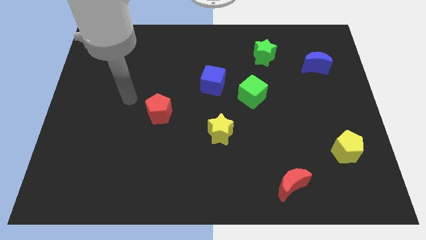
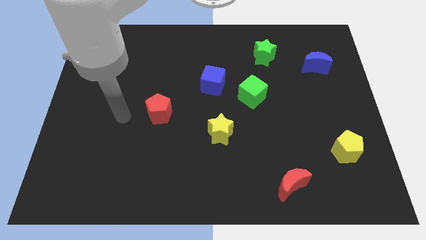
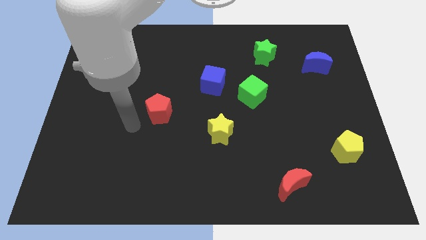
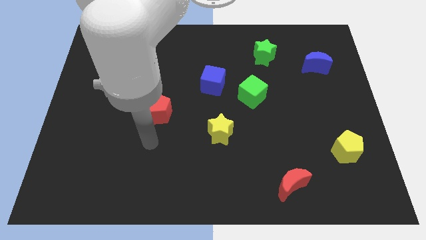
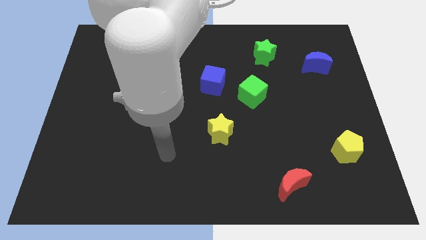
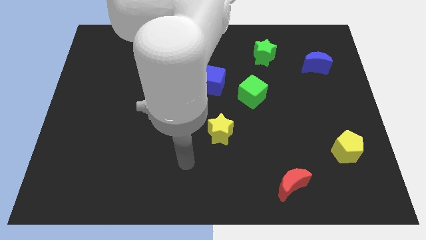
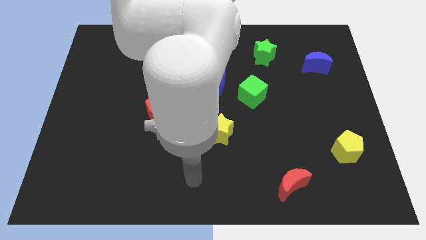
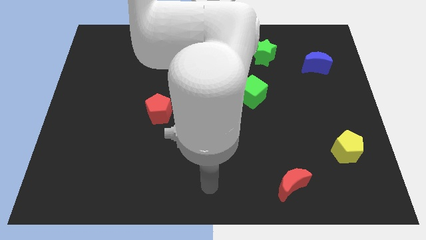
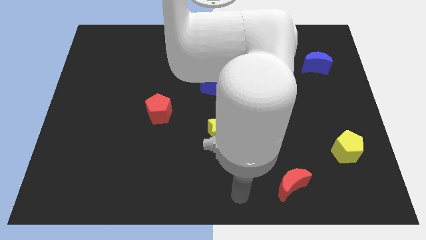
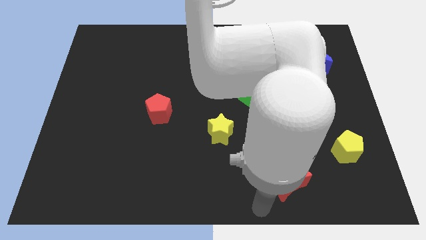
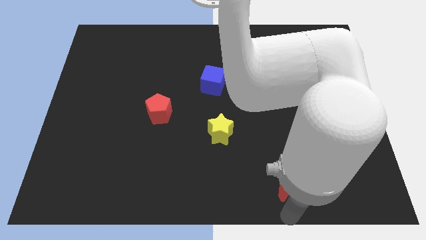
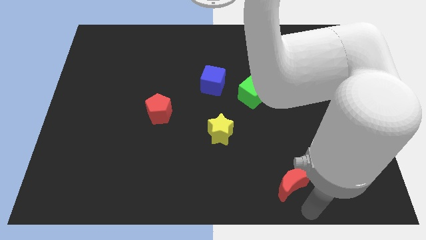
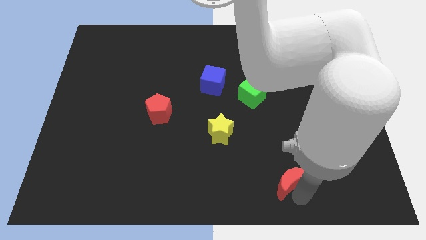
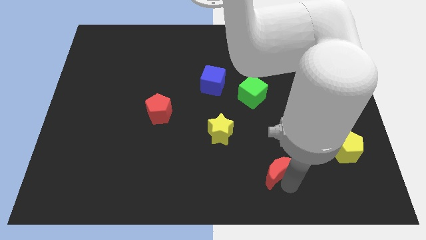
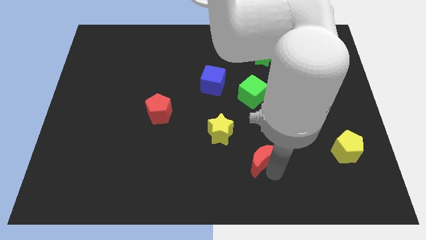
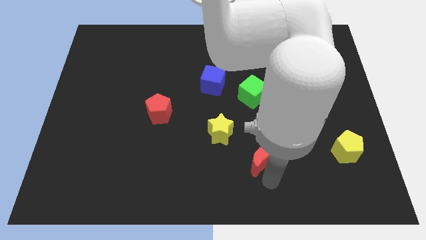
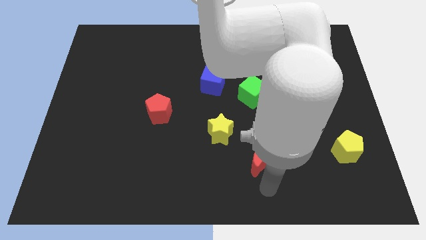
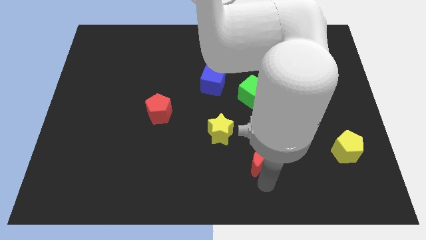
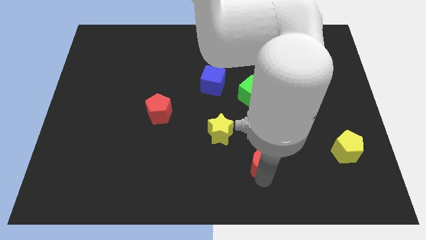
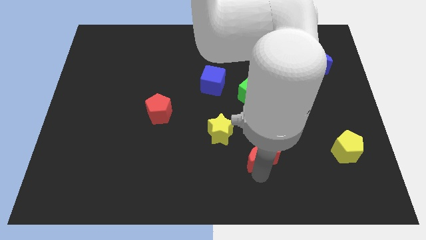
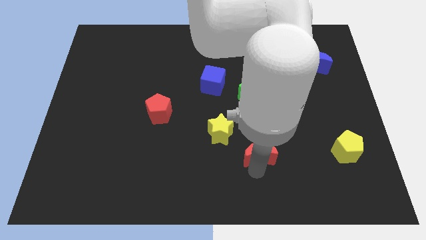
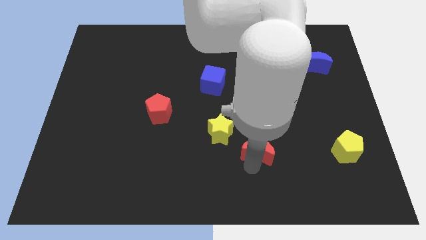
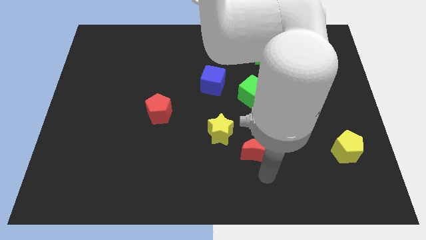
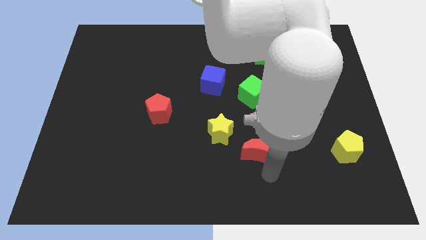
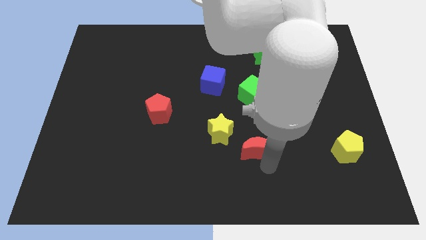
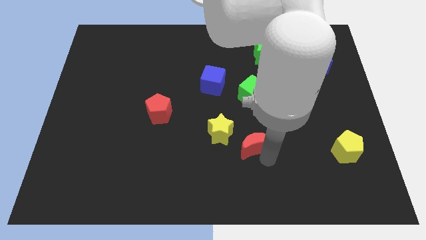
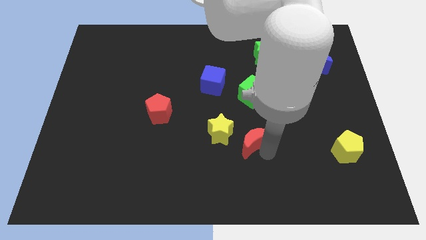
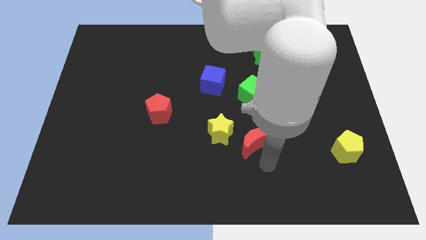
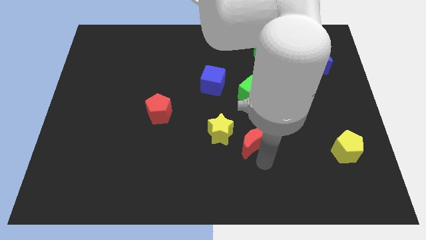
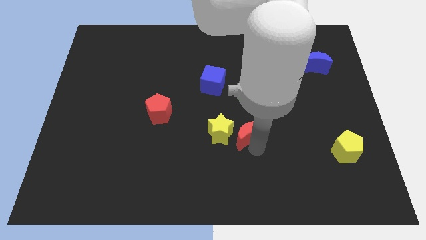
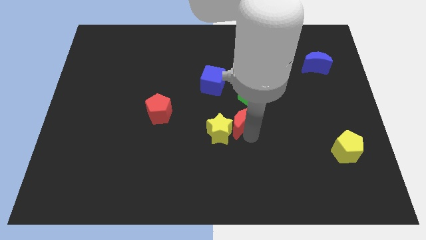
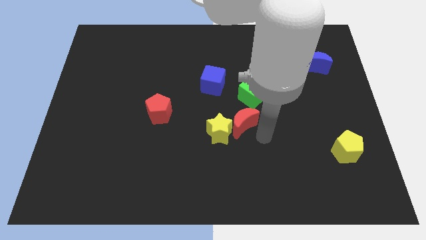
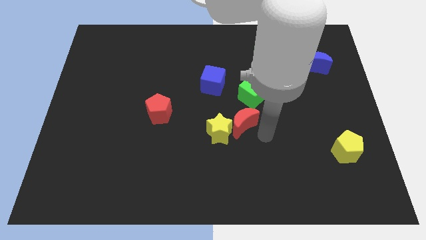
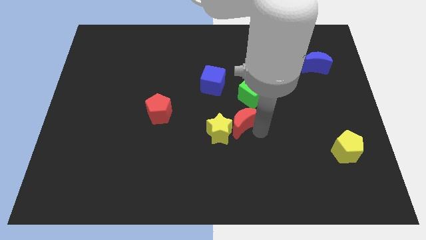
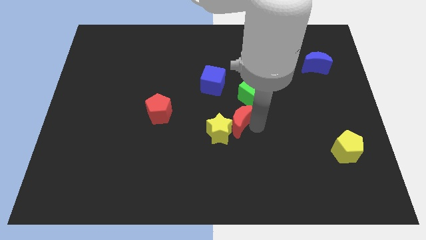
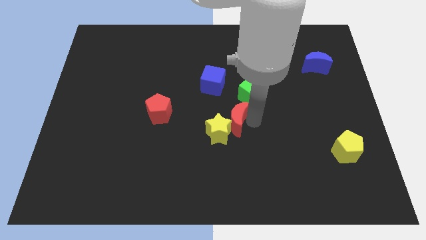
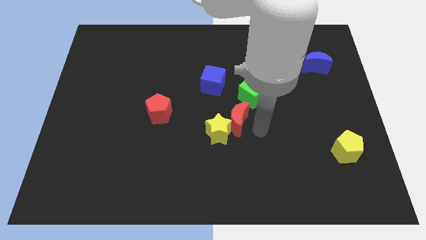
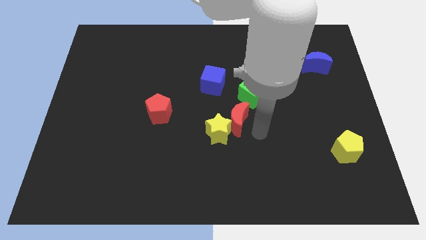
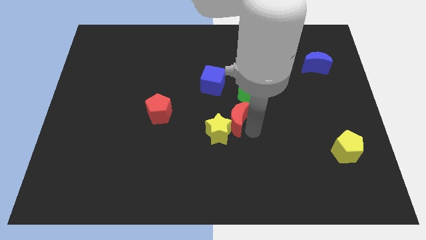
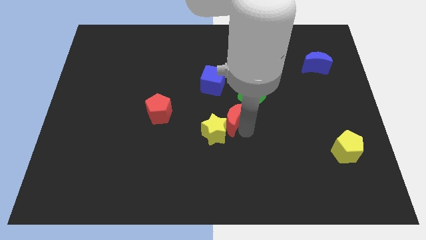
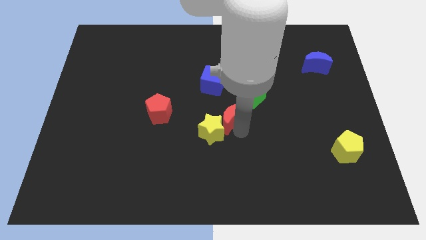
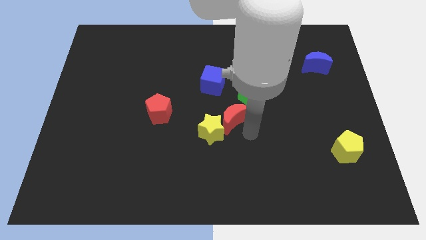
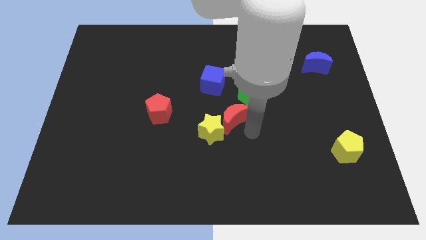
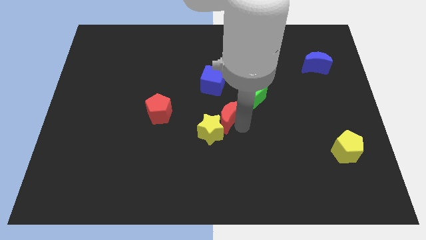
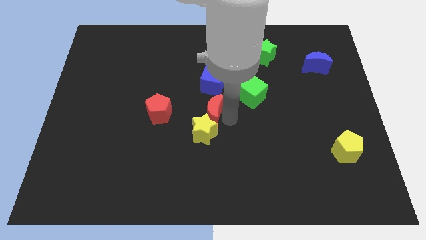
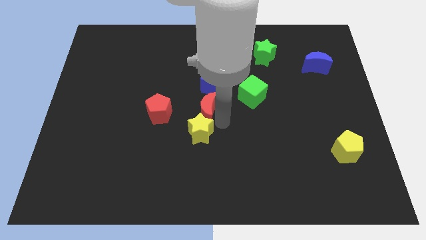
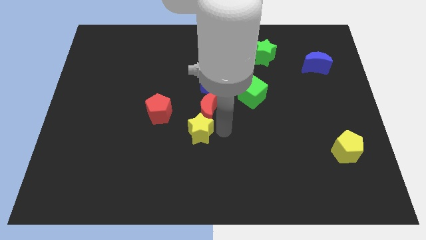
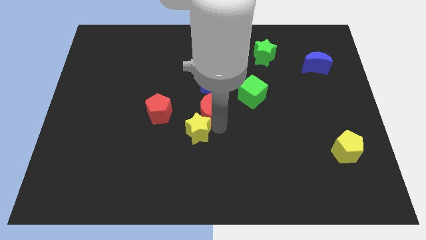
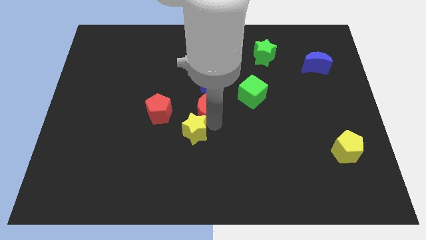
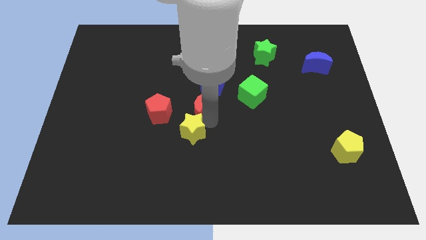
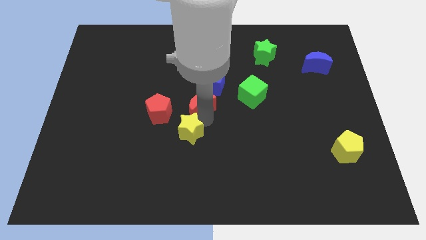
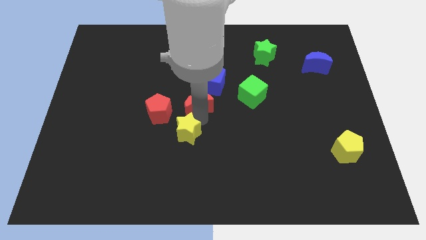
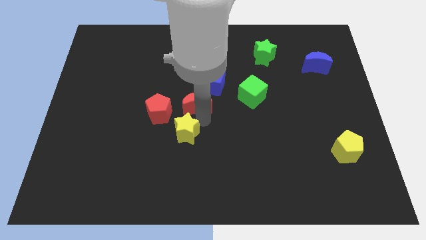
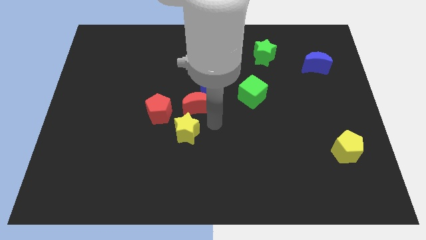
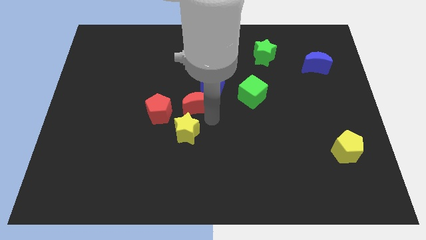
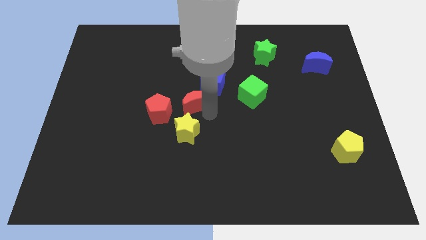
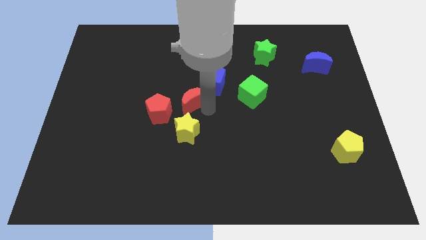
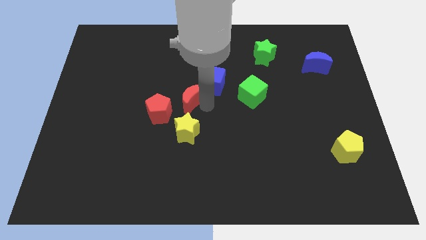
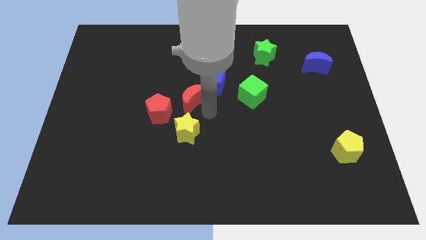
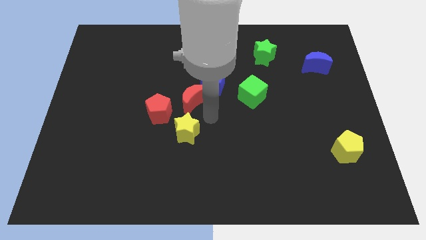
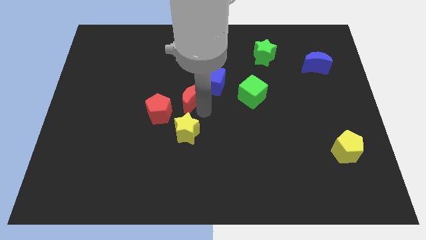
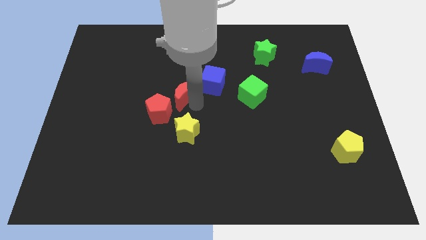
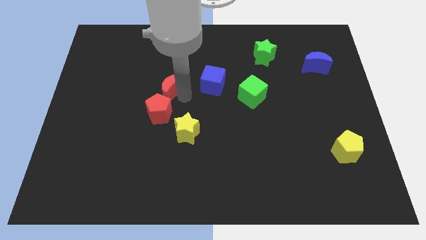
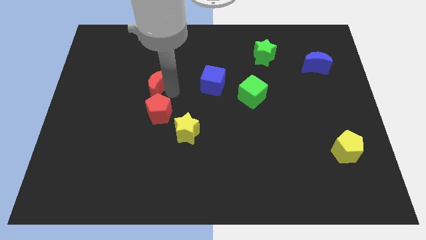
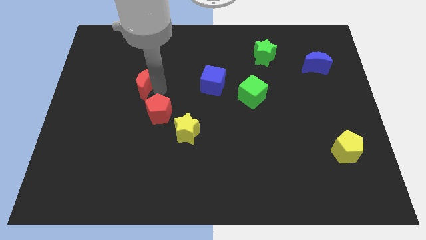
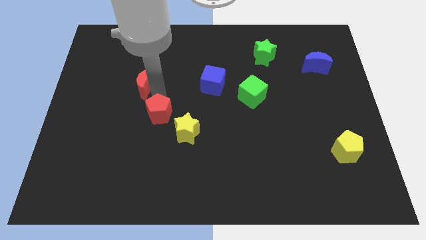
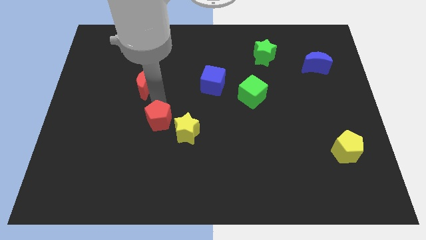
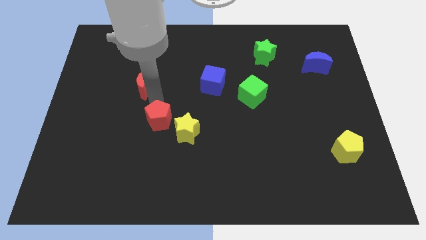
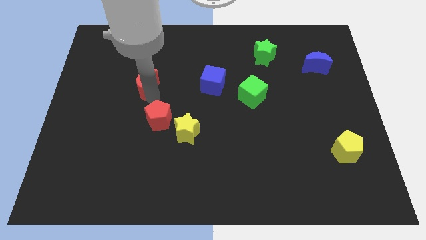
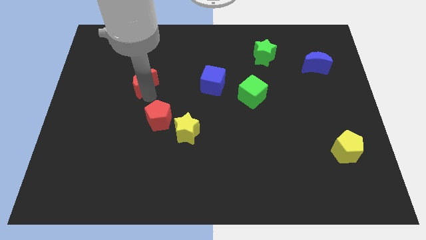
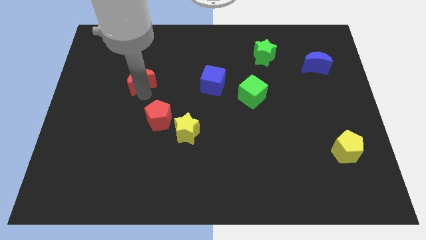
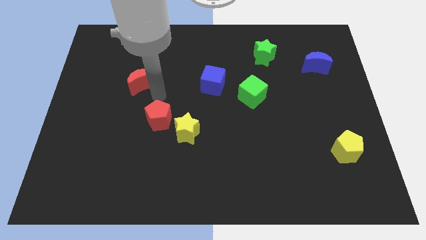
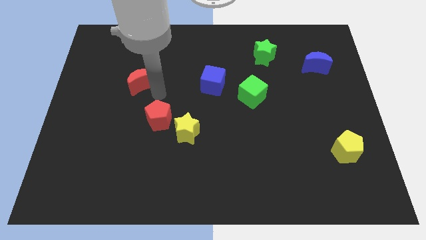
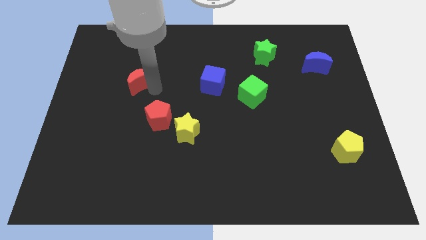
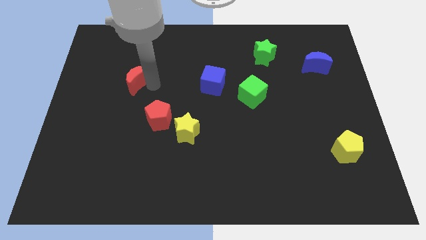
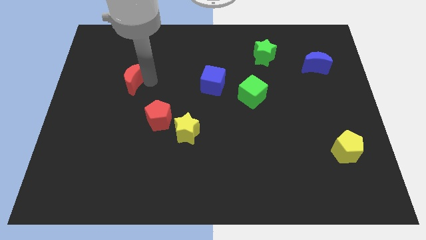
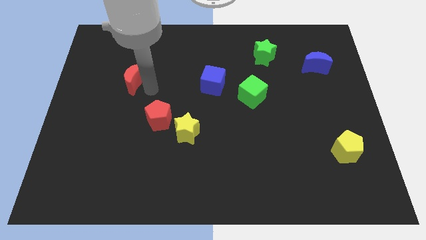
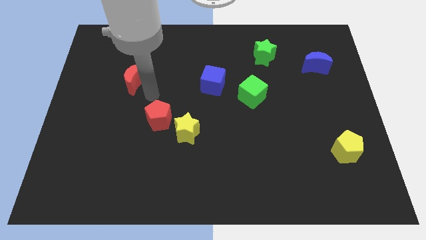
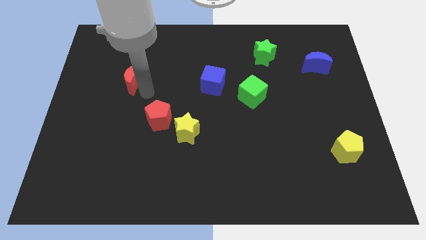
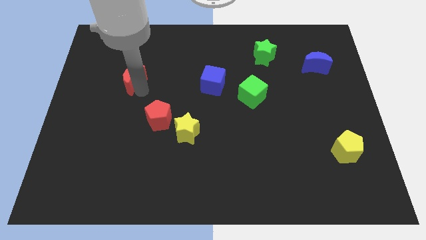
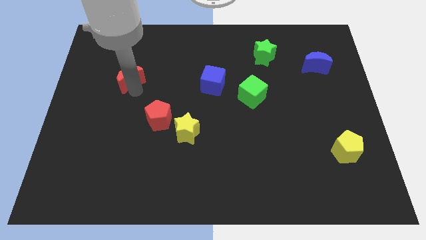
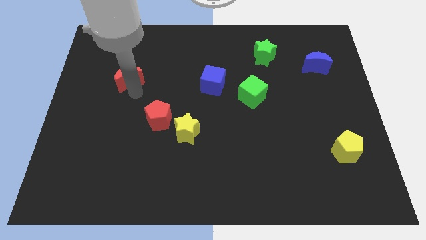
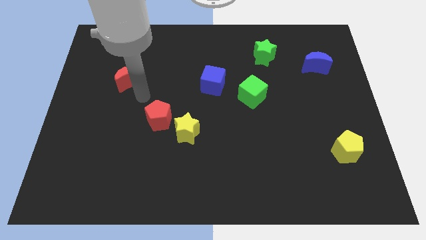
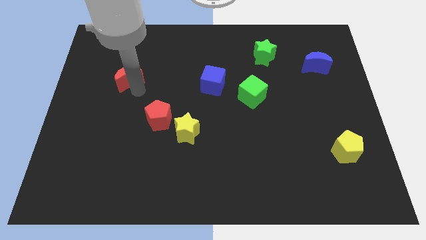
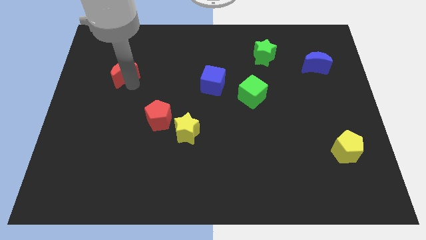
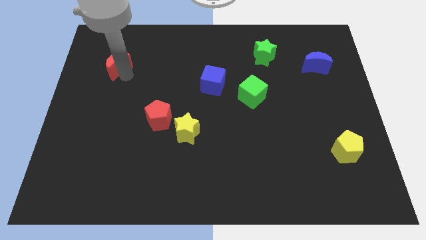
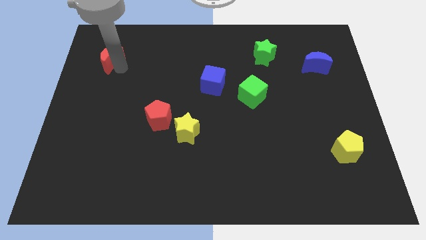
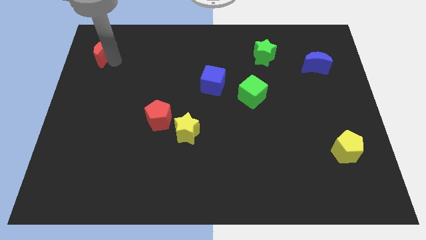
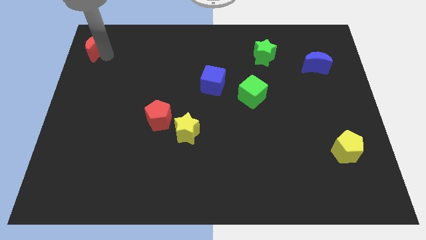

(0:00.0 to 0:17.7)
slide the red moon to the top left
